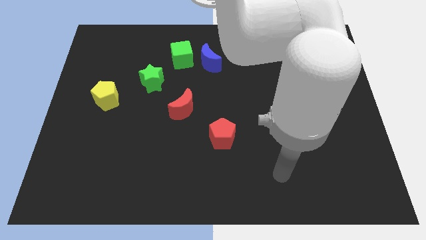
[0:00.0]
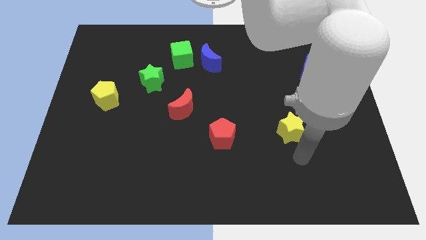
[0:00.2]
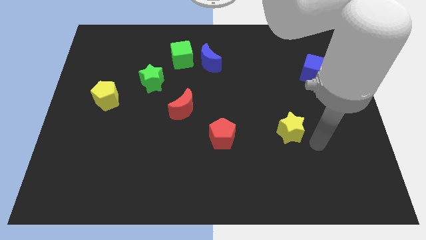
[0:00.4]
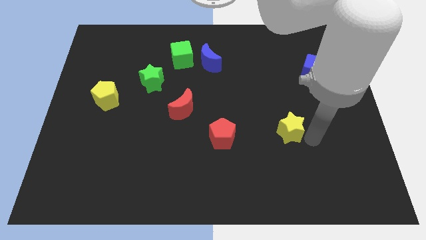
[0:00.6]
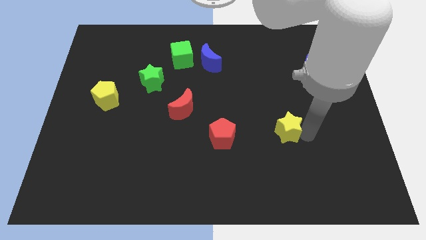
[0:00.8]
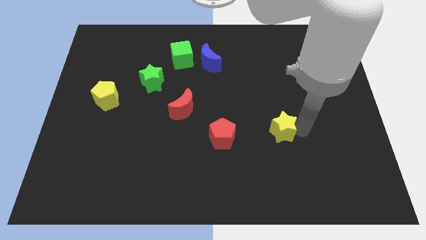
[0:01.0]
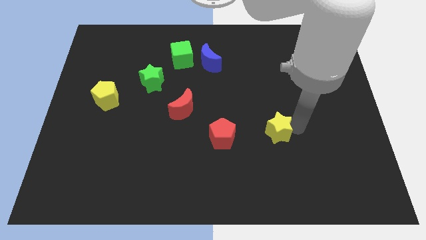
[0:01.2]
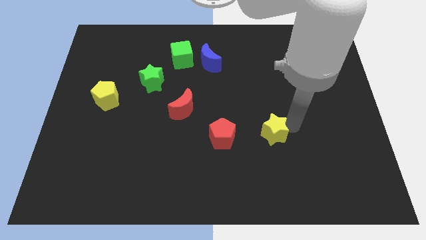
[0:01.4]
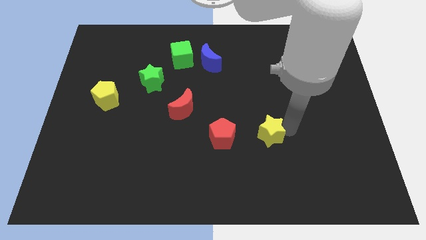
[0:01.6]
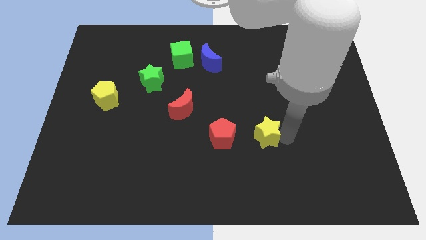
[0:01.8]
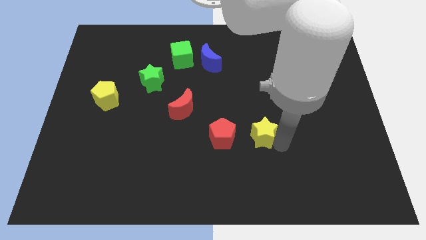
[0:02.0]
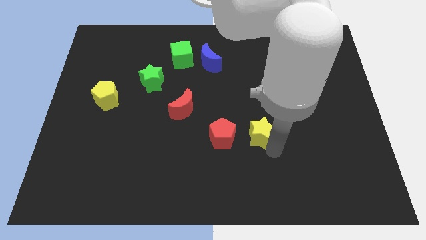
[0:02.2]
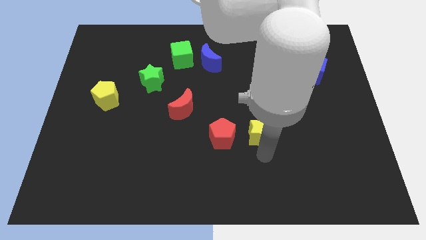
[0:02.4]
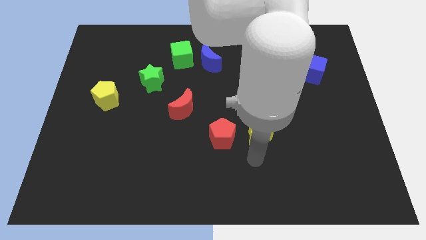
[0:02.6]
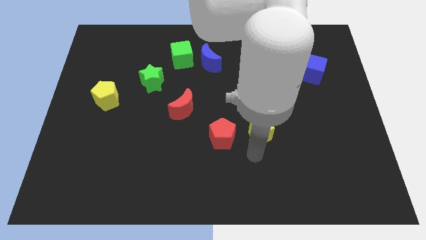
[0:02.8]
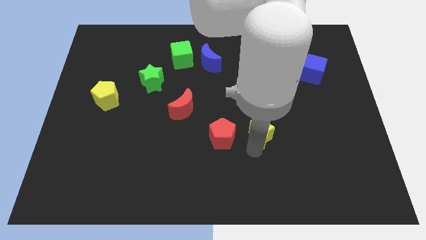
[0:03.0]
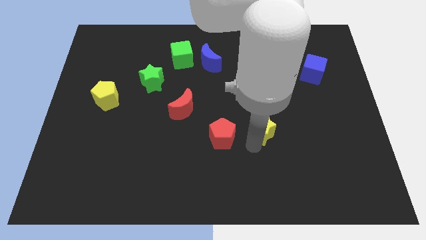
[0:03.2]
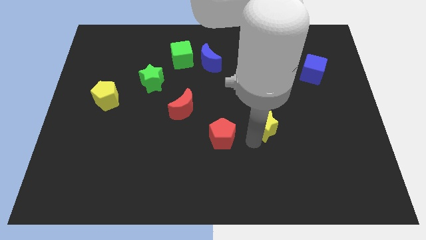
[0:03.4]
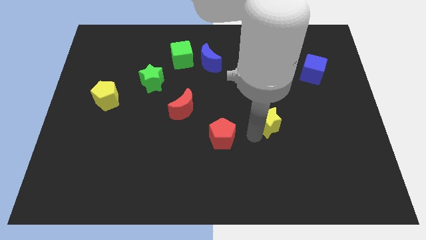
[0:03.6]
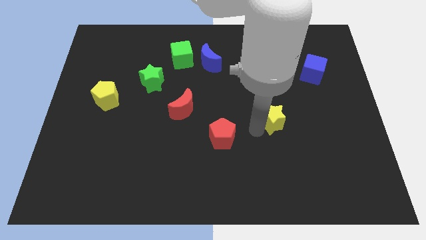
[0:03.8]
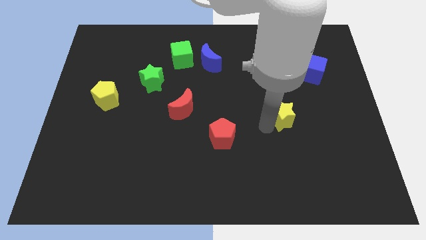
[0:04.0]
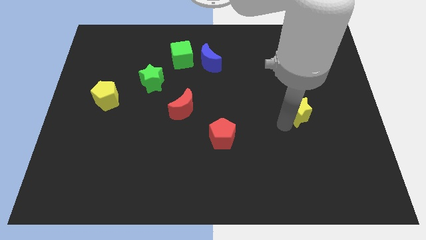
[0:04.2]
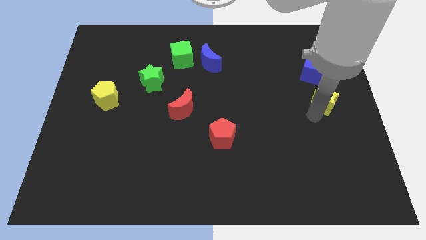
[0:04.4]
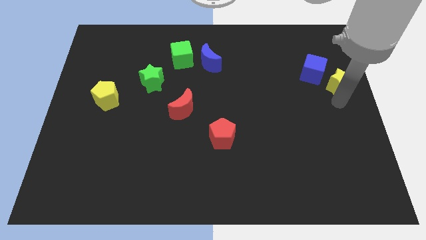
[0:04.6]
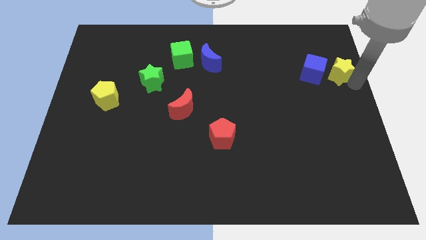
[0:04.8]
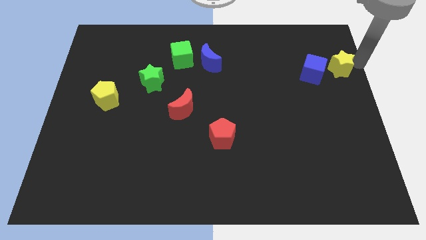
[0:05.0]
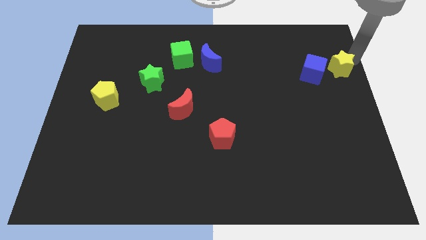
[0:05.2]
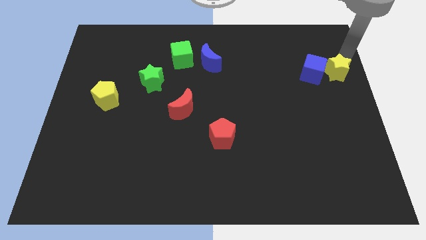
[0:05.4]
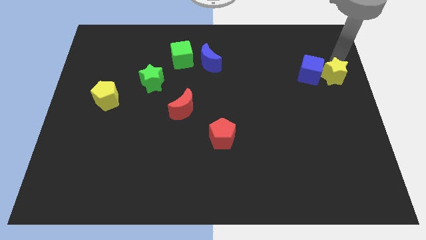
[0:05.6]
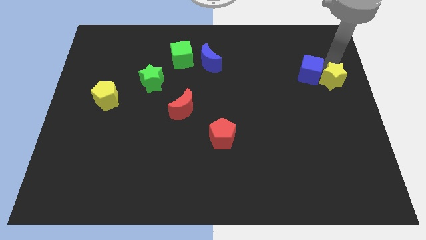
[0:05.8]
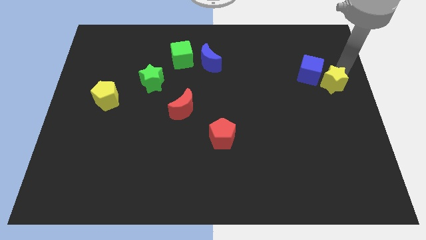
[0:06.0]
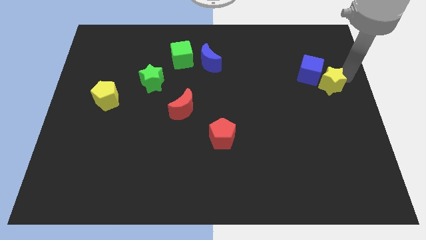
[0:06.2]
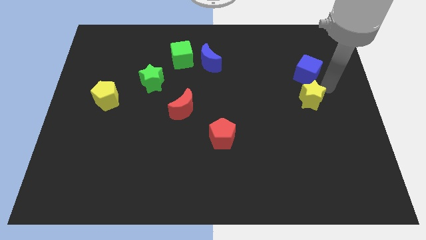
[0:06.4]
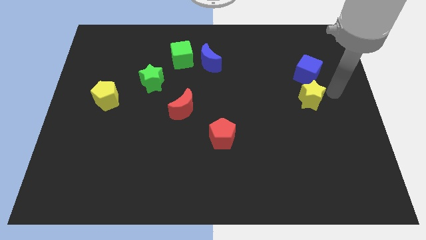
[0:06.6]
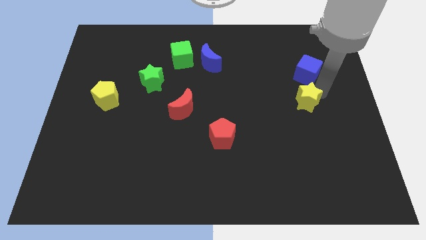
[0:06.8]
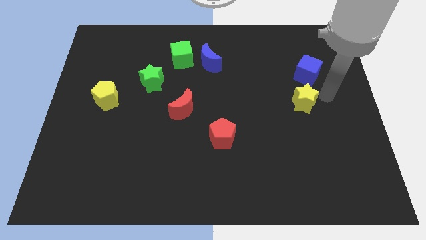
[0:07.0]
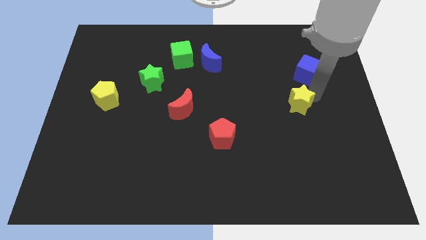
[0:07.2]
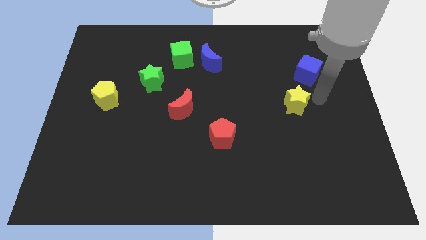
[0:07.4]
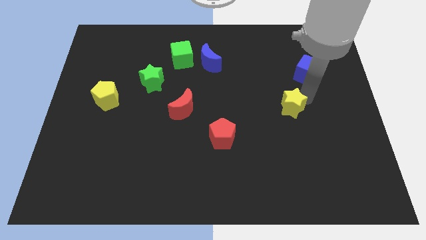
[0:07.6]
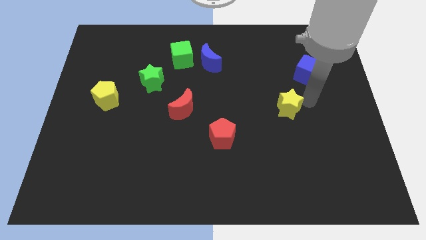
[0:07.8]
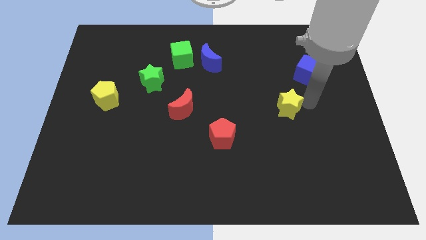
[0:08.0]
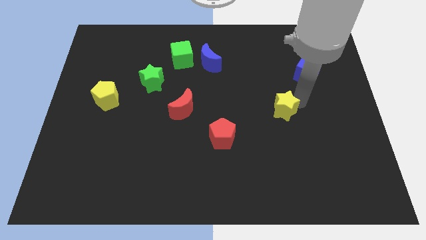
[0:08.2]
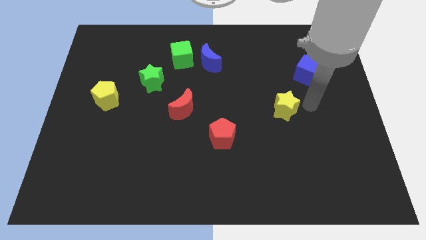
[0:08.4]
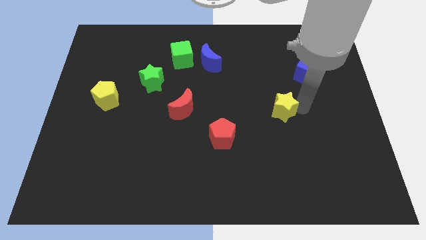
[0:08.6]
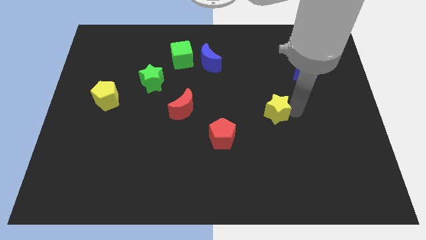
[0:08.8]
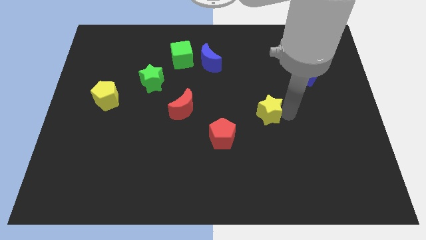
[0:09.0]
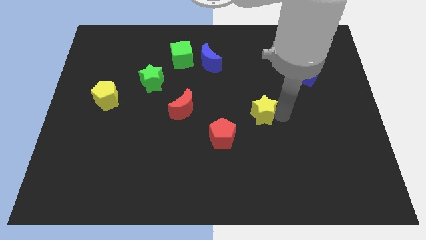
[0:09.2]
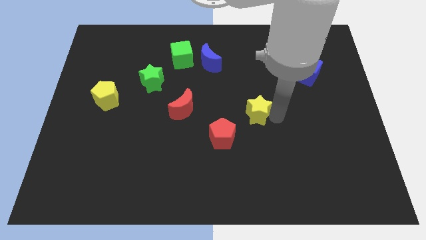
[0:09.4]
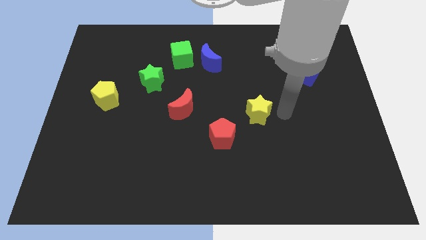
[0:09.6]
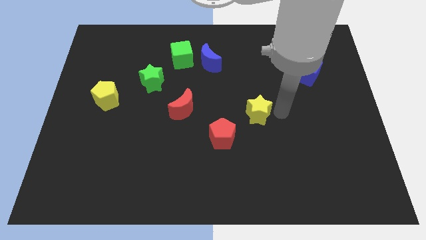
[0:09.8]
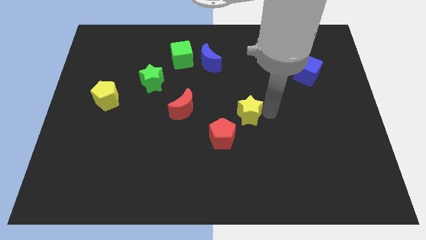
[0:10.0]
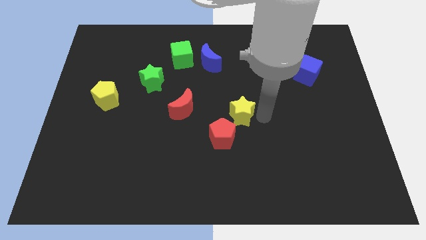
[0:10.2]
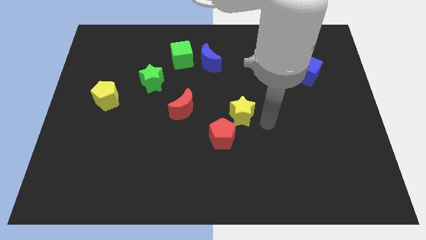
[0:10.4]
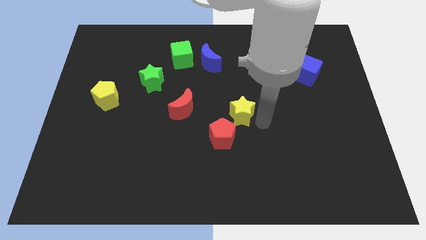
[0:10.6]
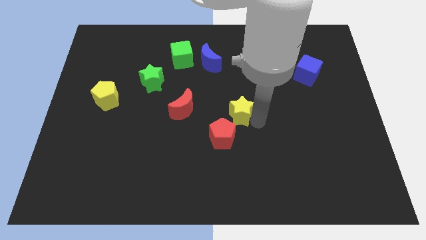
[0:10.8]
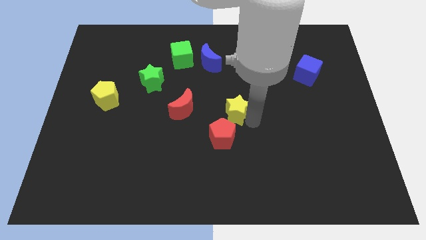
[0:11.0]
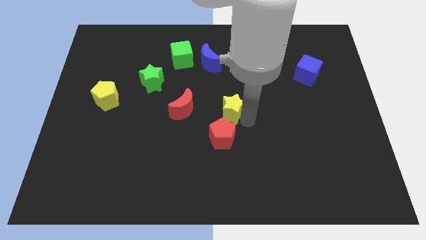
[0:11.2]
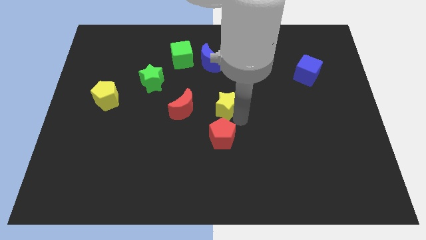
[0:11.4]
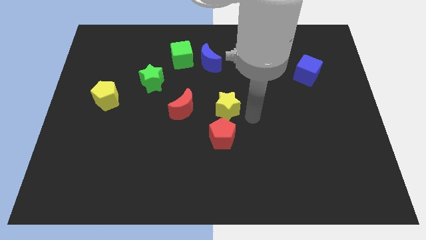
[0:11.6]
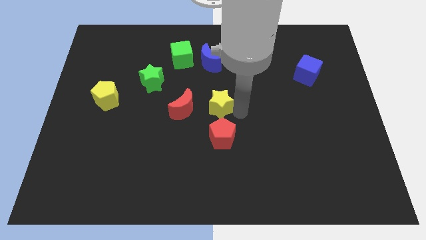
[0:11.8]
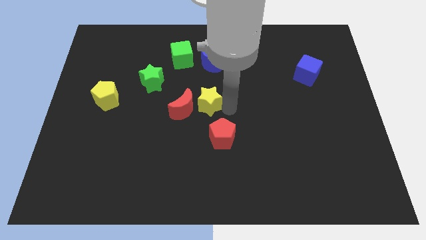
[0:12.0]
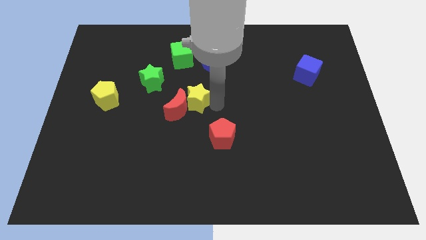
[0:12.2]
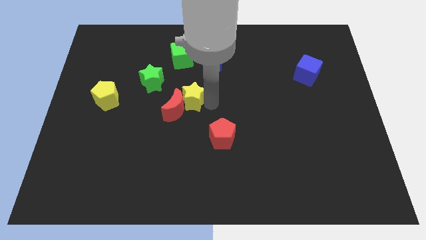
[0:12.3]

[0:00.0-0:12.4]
move the yellow star diagonally down and to the right of the green star

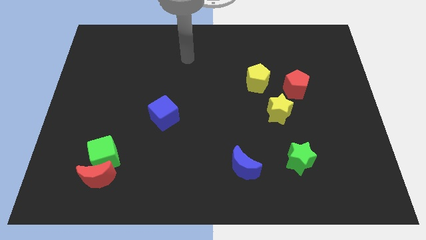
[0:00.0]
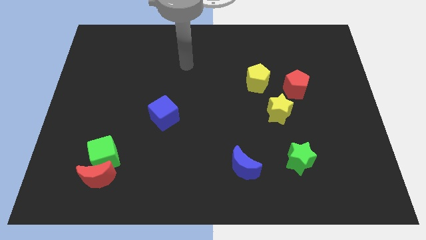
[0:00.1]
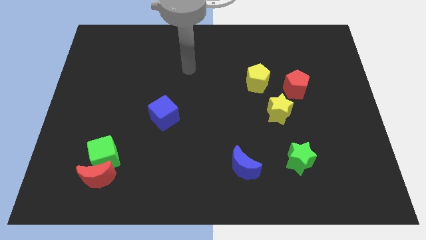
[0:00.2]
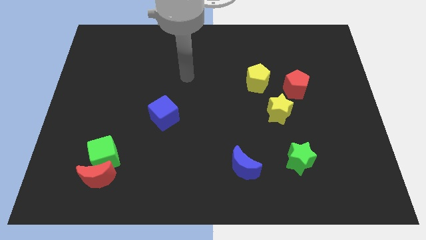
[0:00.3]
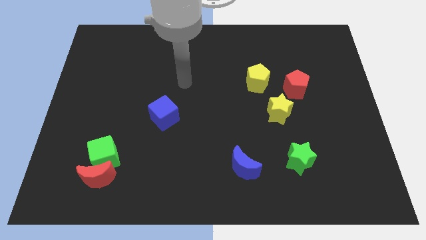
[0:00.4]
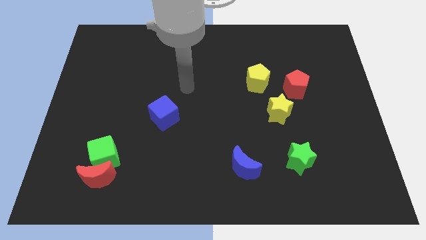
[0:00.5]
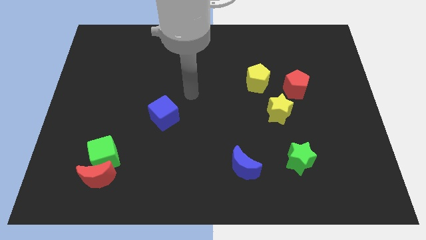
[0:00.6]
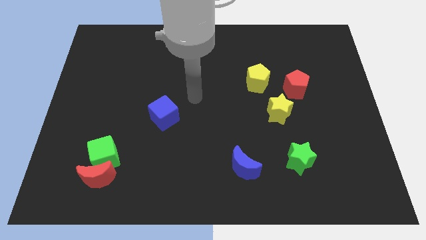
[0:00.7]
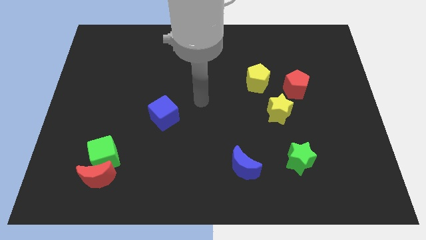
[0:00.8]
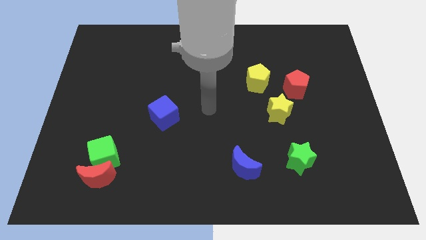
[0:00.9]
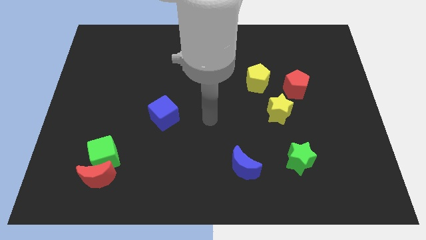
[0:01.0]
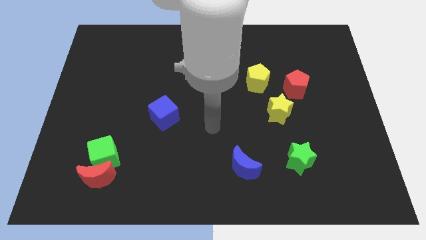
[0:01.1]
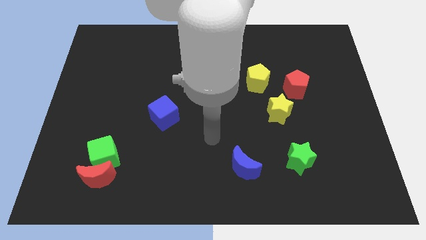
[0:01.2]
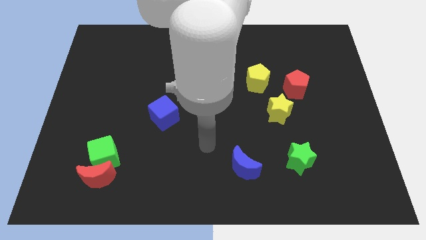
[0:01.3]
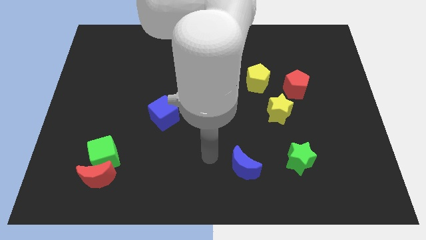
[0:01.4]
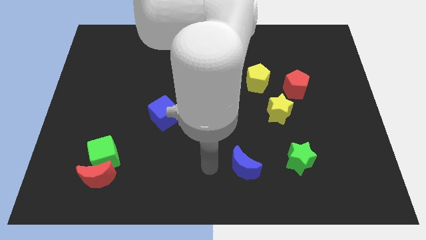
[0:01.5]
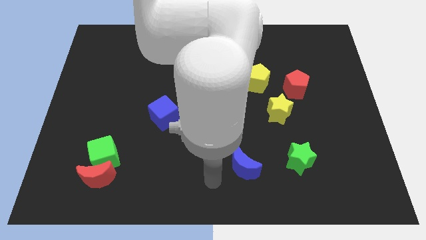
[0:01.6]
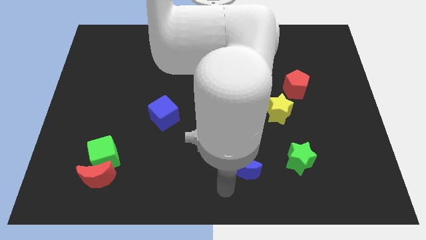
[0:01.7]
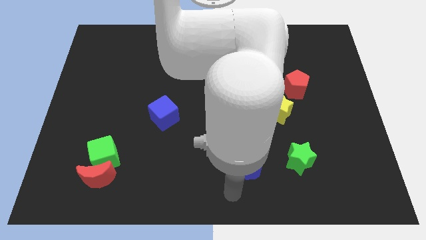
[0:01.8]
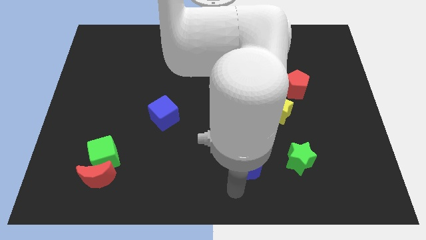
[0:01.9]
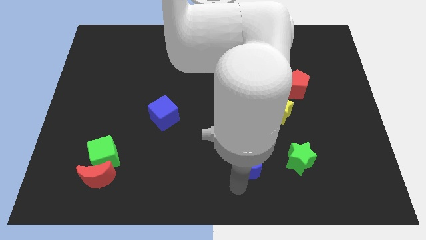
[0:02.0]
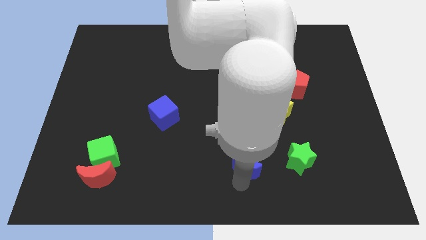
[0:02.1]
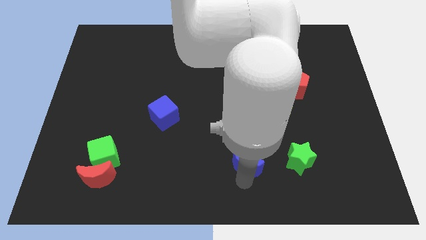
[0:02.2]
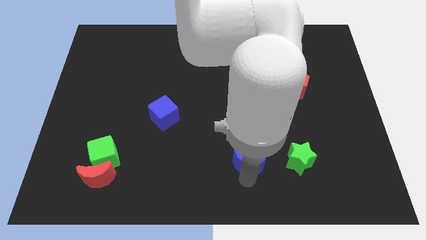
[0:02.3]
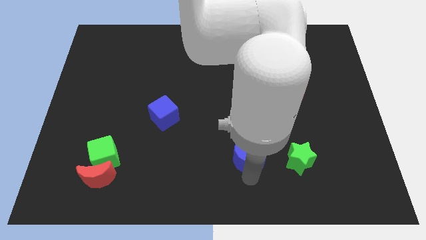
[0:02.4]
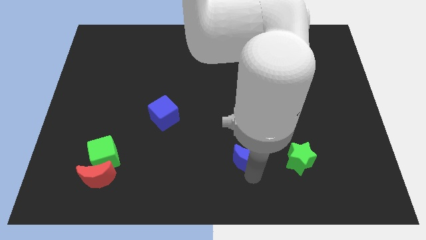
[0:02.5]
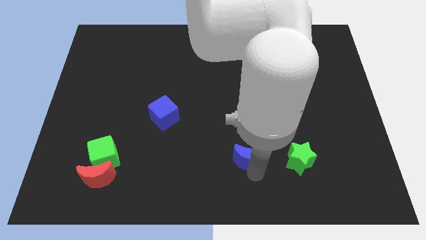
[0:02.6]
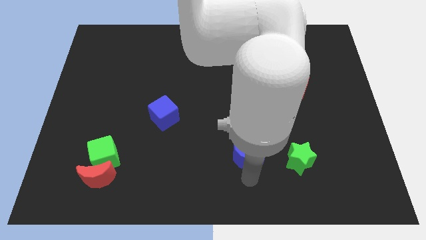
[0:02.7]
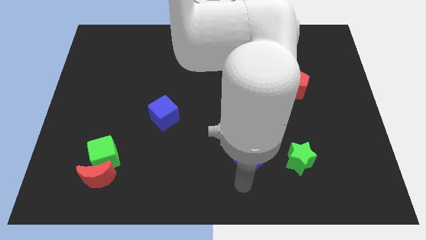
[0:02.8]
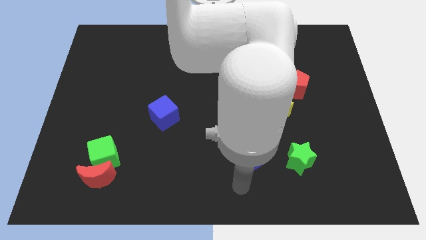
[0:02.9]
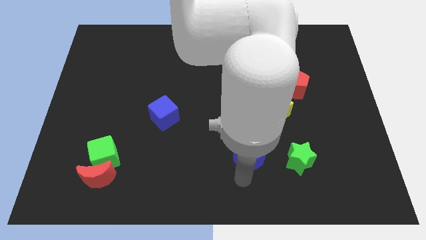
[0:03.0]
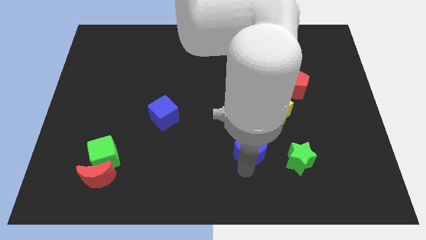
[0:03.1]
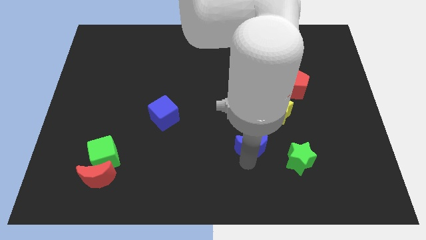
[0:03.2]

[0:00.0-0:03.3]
slide the blue moon diagonally down and to the left of the yellow star
